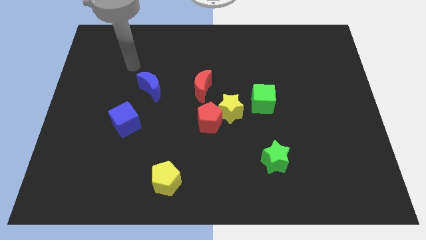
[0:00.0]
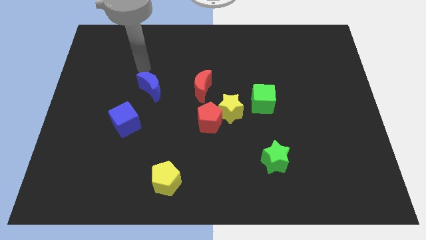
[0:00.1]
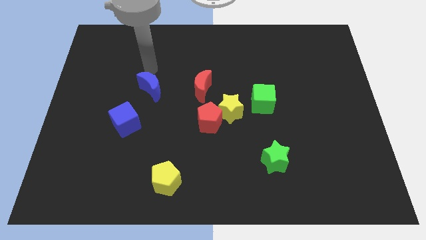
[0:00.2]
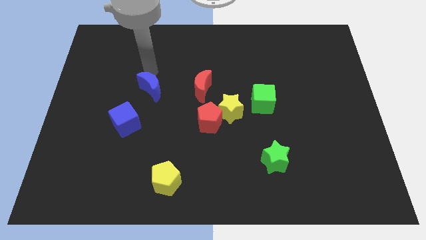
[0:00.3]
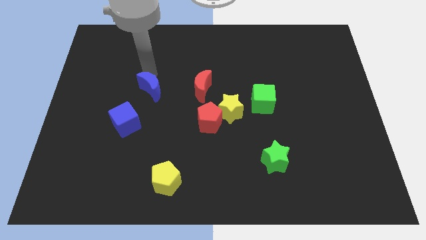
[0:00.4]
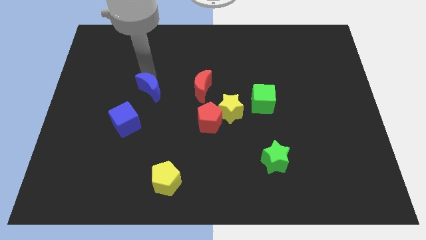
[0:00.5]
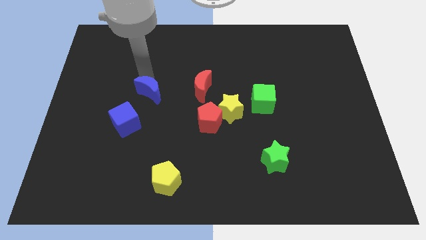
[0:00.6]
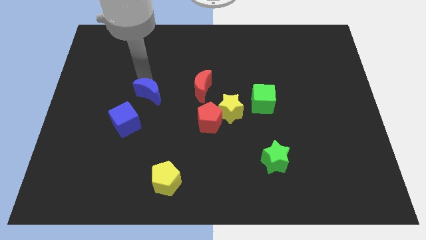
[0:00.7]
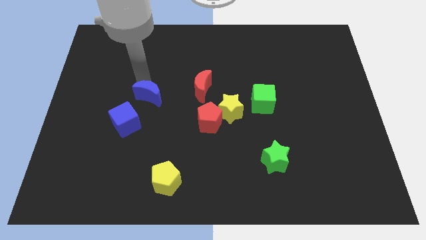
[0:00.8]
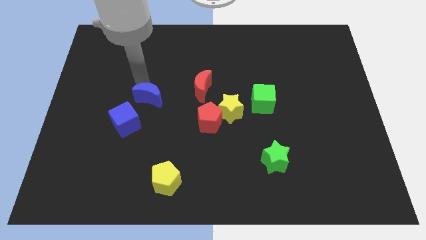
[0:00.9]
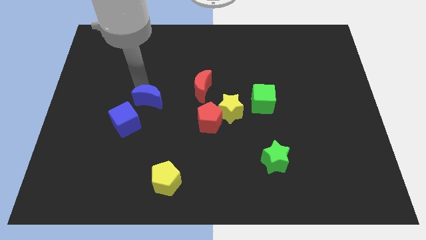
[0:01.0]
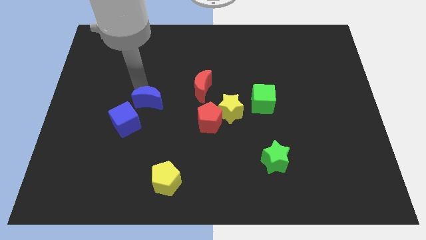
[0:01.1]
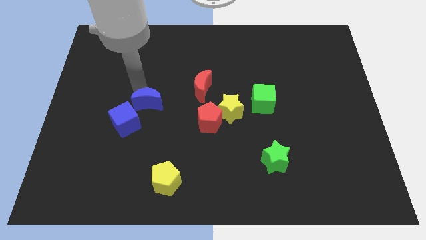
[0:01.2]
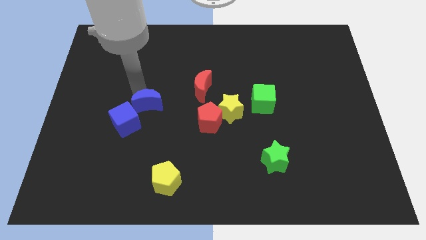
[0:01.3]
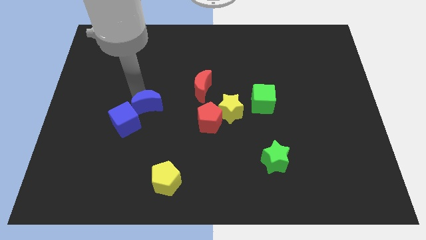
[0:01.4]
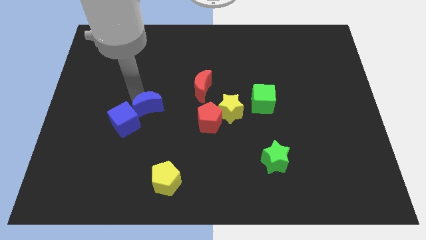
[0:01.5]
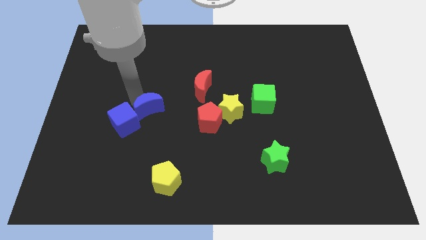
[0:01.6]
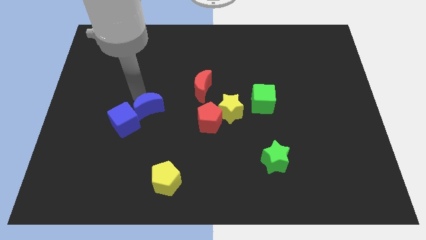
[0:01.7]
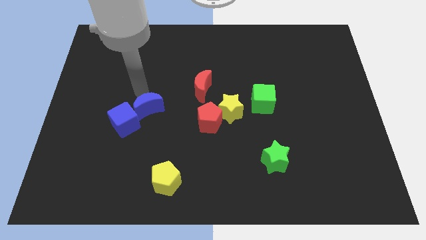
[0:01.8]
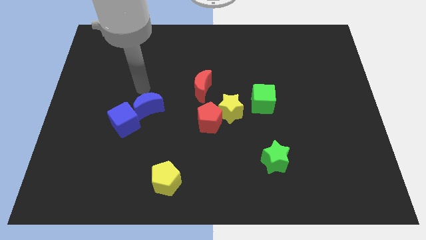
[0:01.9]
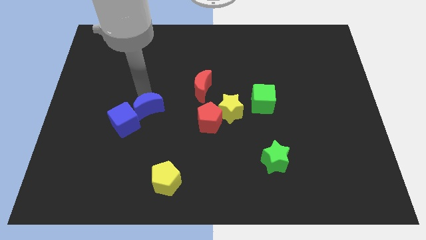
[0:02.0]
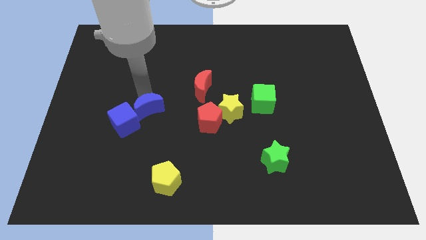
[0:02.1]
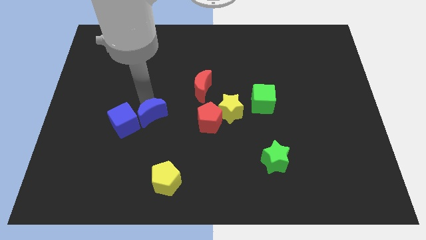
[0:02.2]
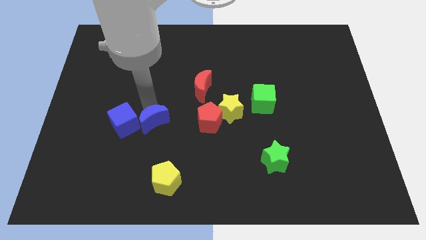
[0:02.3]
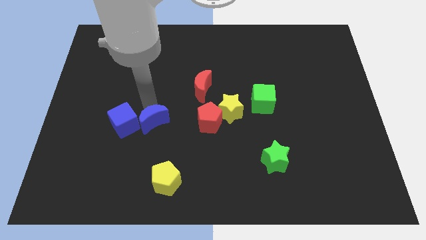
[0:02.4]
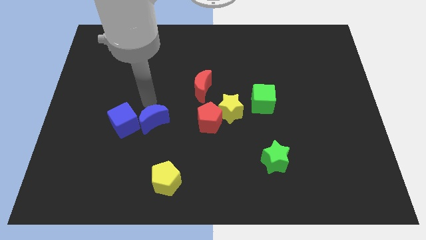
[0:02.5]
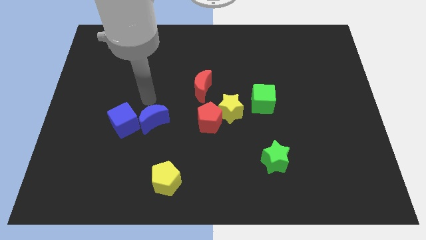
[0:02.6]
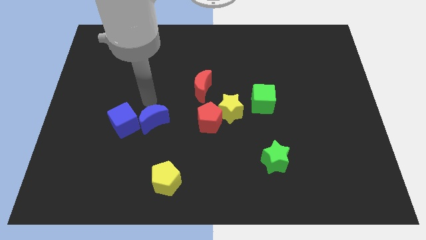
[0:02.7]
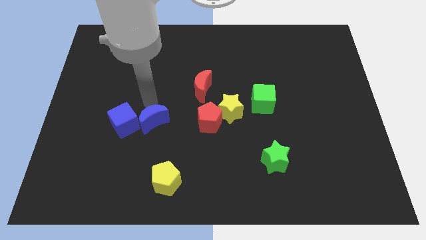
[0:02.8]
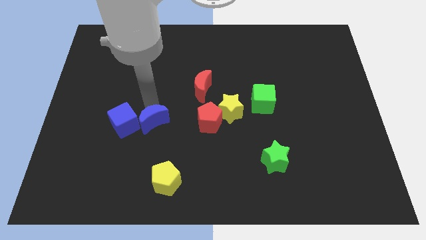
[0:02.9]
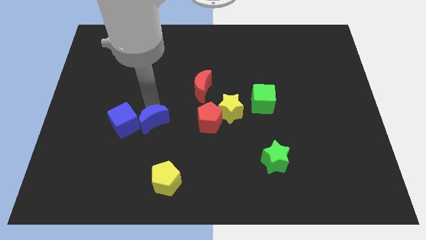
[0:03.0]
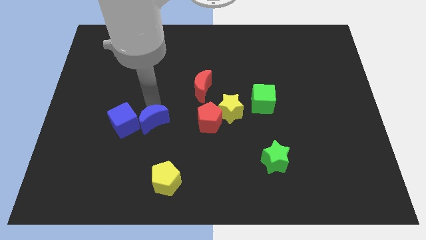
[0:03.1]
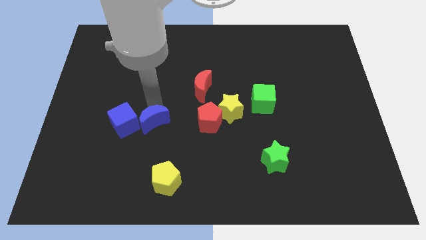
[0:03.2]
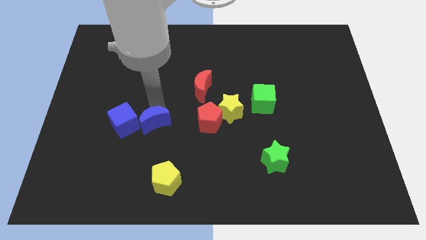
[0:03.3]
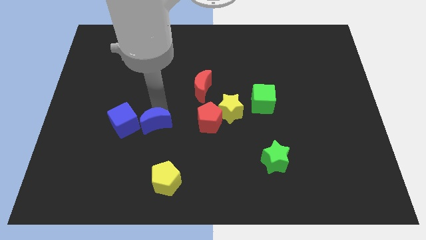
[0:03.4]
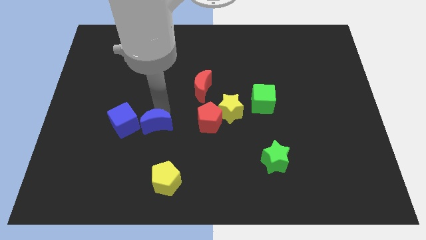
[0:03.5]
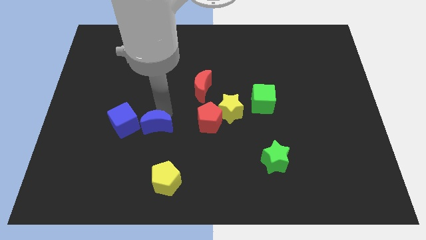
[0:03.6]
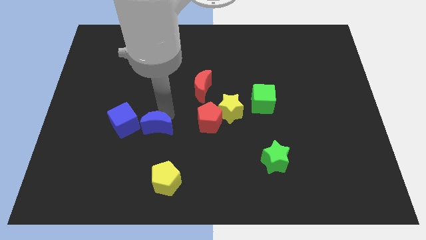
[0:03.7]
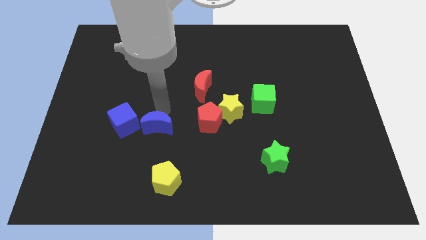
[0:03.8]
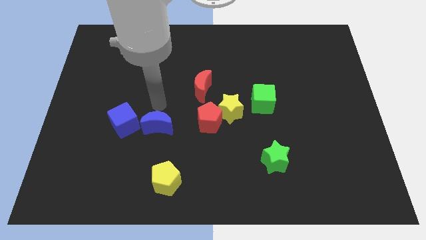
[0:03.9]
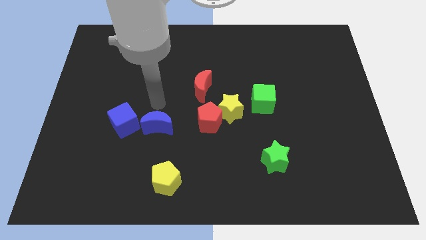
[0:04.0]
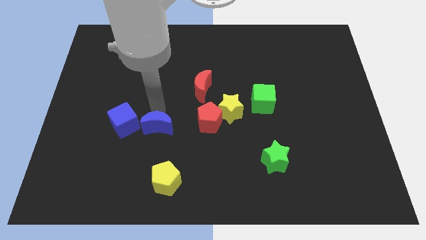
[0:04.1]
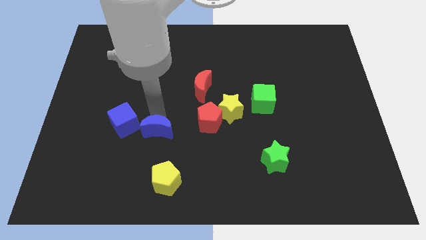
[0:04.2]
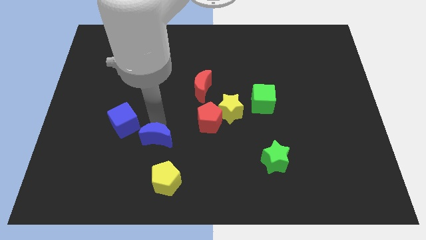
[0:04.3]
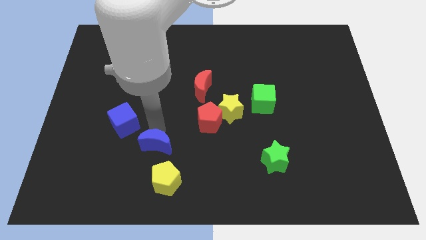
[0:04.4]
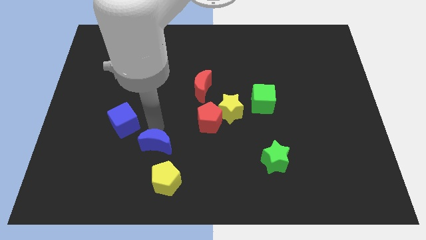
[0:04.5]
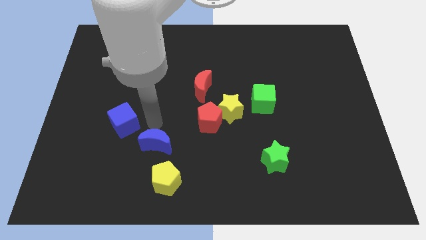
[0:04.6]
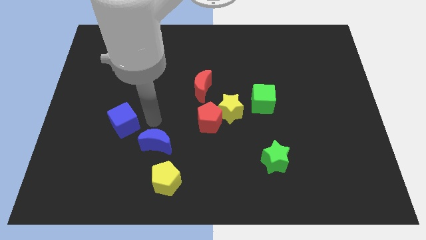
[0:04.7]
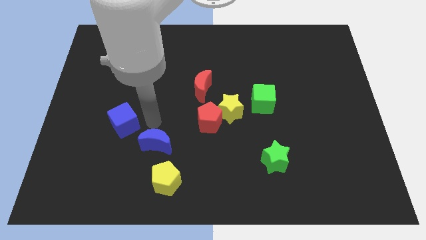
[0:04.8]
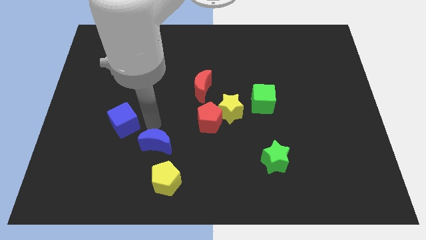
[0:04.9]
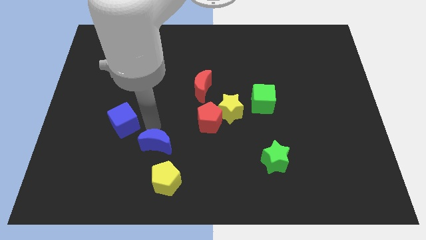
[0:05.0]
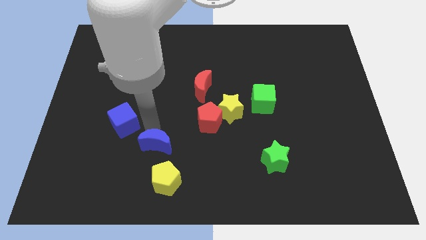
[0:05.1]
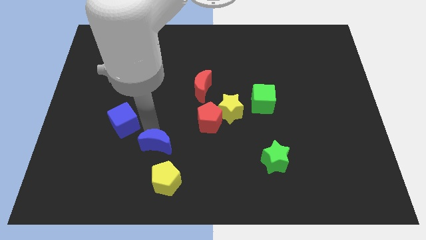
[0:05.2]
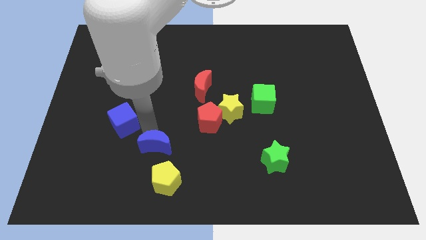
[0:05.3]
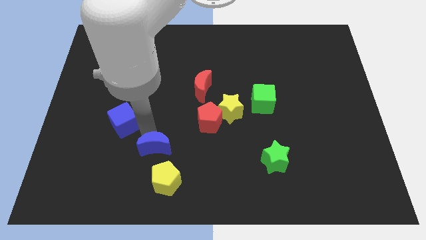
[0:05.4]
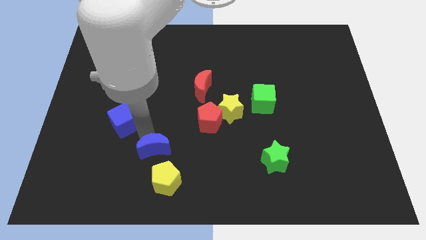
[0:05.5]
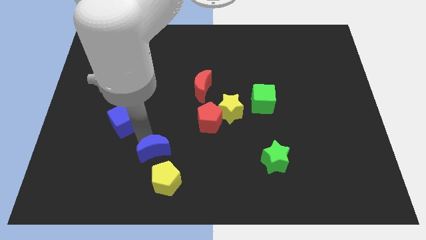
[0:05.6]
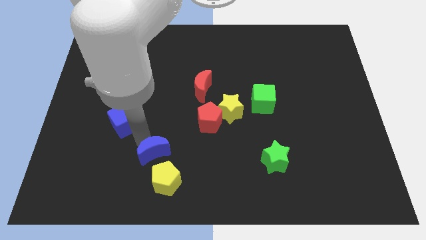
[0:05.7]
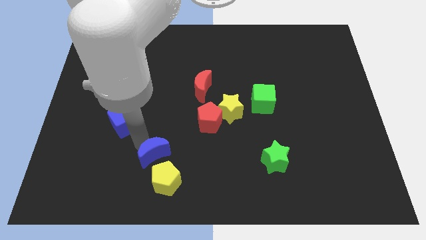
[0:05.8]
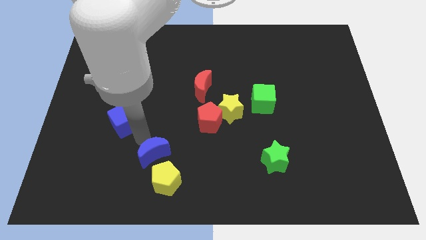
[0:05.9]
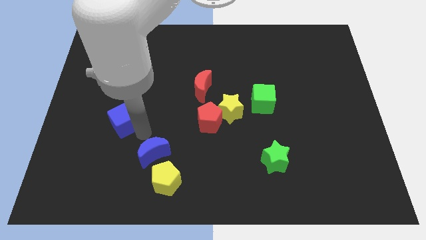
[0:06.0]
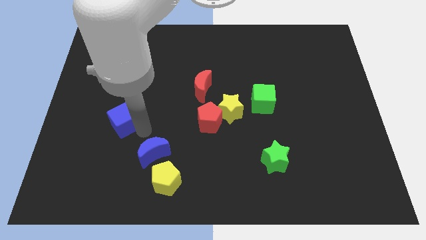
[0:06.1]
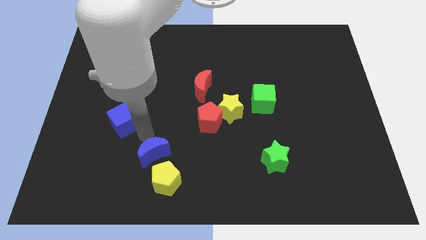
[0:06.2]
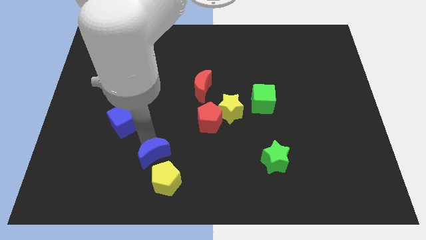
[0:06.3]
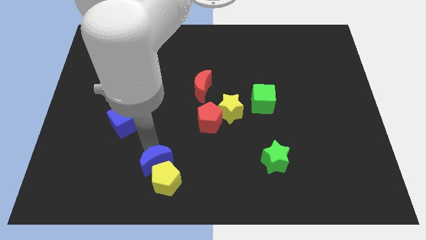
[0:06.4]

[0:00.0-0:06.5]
slide the blue moon close to the yellow pentagon

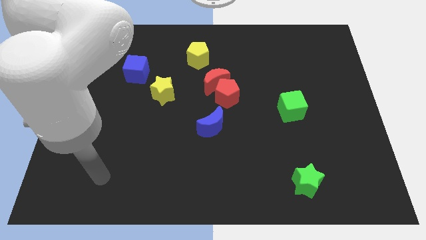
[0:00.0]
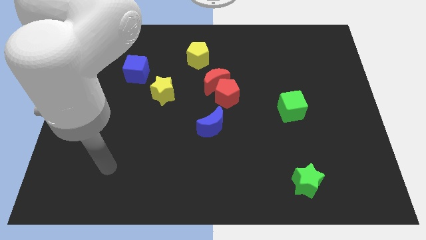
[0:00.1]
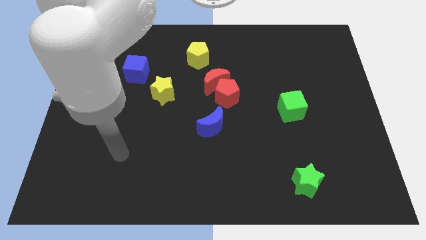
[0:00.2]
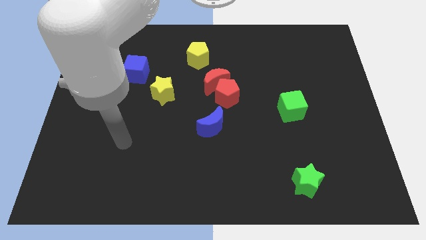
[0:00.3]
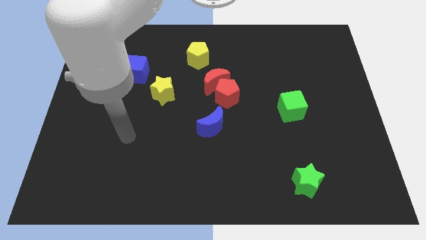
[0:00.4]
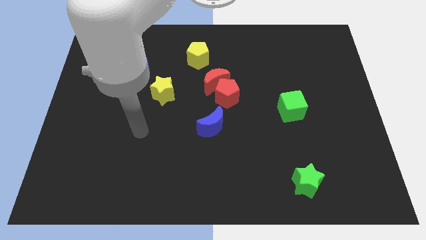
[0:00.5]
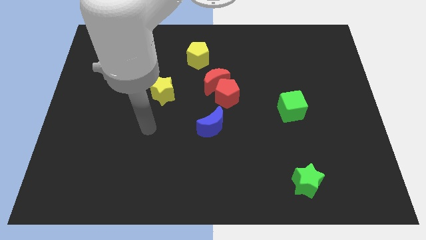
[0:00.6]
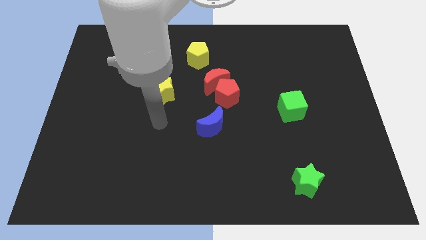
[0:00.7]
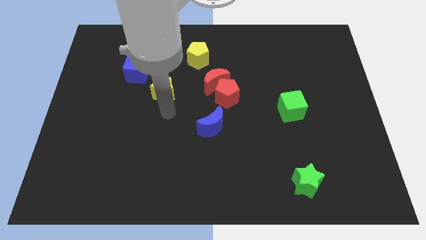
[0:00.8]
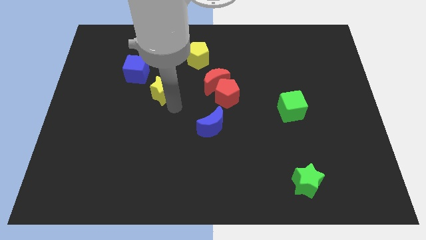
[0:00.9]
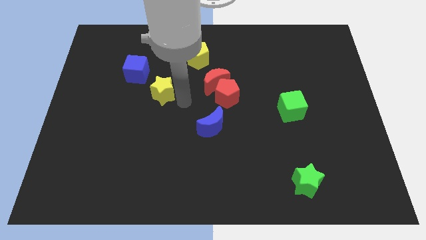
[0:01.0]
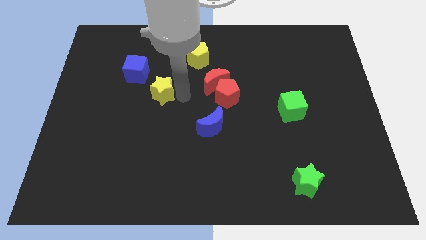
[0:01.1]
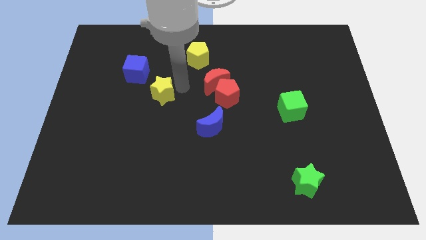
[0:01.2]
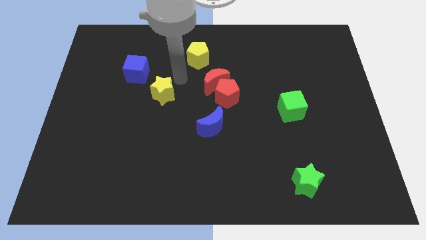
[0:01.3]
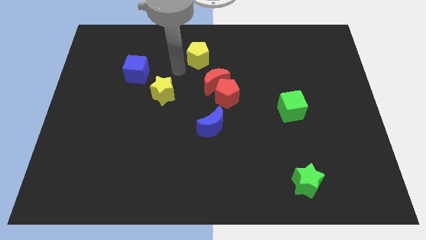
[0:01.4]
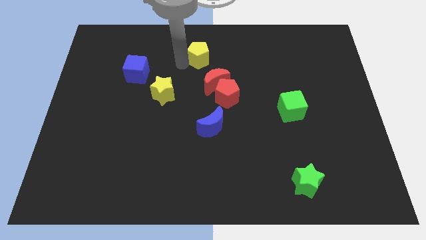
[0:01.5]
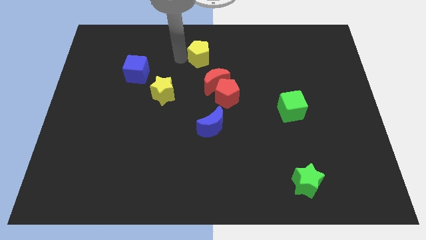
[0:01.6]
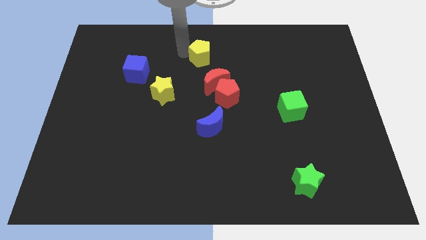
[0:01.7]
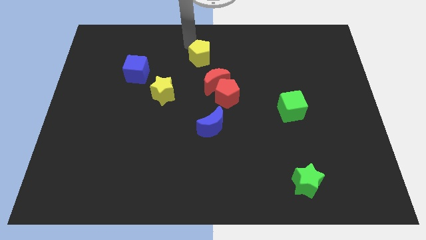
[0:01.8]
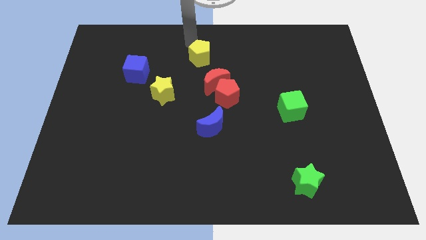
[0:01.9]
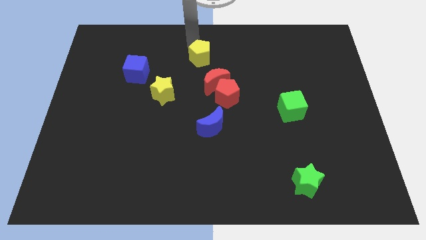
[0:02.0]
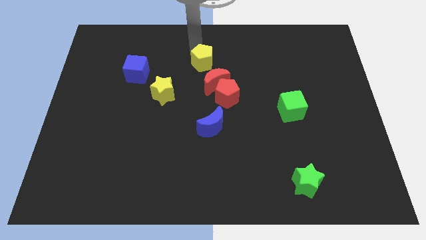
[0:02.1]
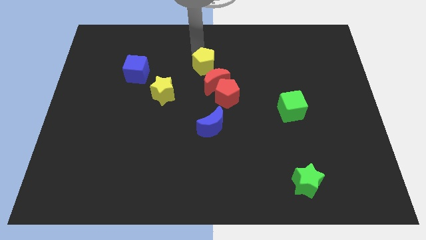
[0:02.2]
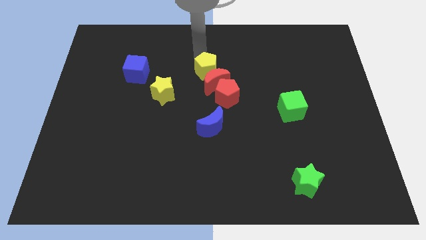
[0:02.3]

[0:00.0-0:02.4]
slide the yellow pentagon close to the red moon
